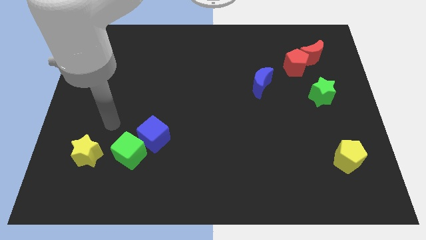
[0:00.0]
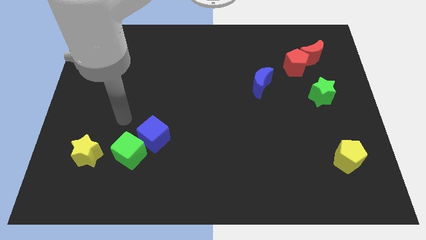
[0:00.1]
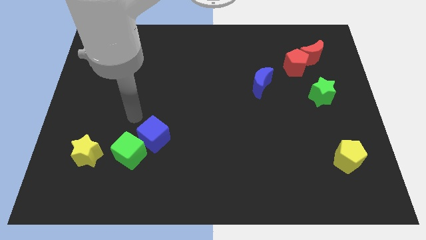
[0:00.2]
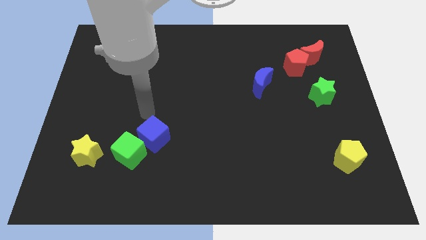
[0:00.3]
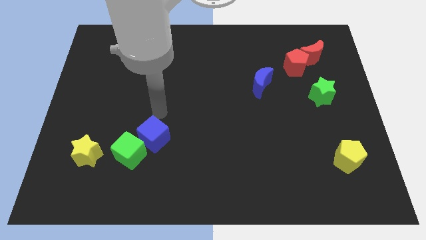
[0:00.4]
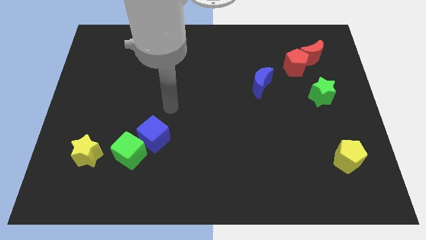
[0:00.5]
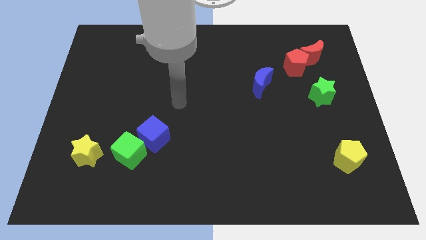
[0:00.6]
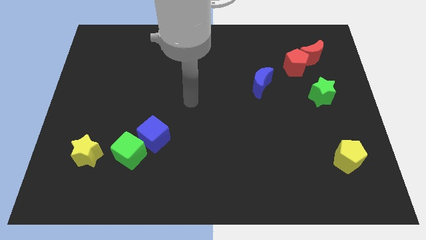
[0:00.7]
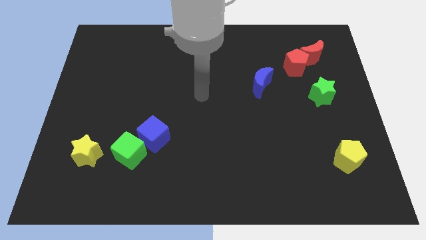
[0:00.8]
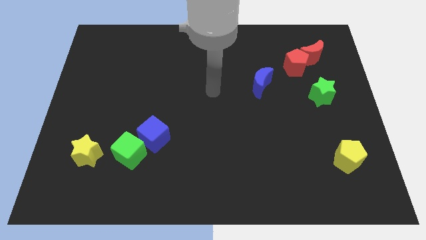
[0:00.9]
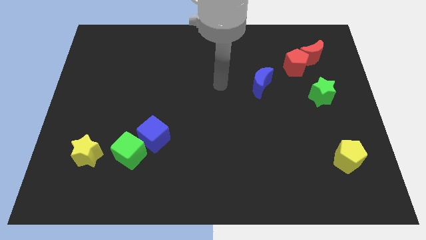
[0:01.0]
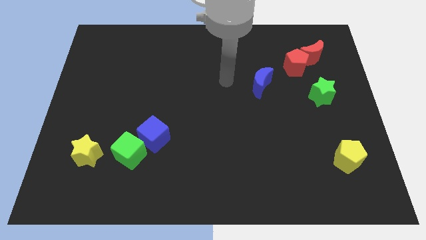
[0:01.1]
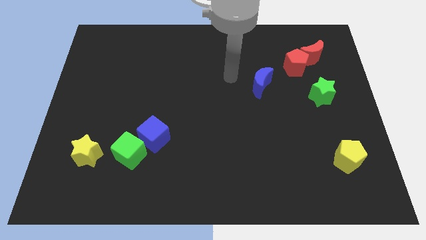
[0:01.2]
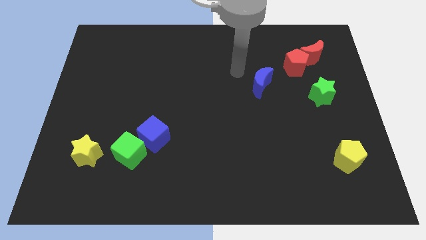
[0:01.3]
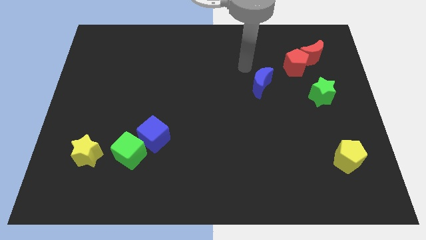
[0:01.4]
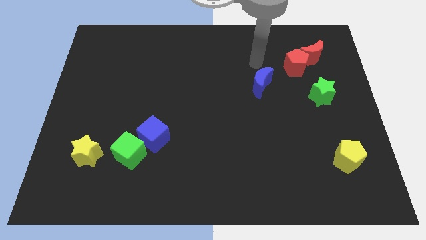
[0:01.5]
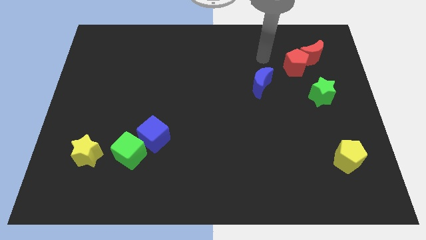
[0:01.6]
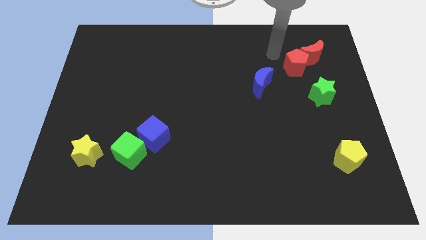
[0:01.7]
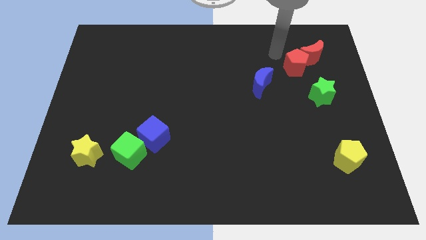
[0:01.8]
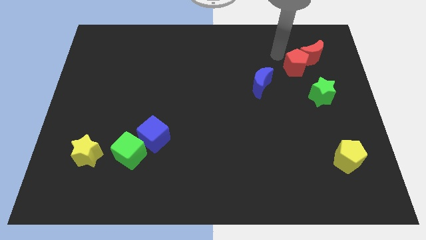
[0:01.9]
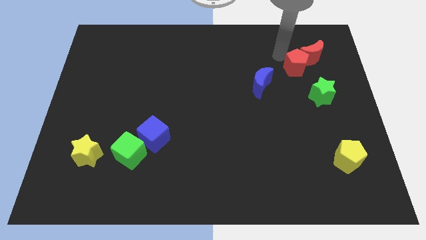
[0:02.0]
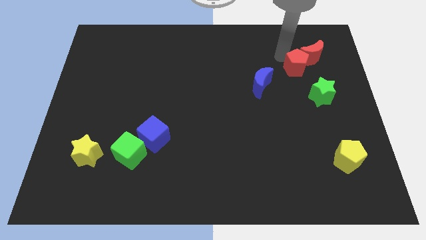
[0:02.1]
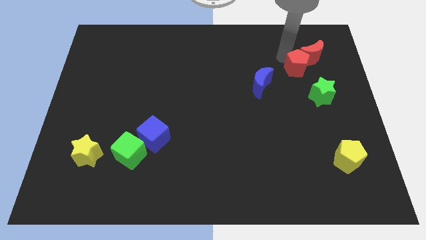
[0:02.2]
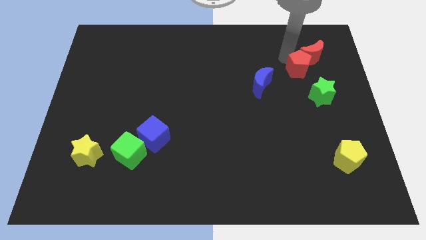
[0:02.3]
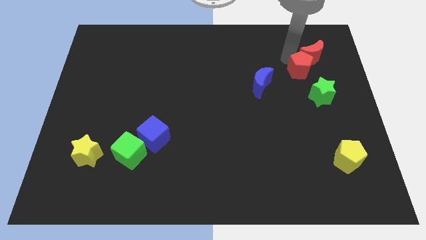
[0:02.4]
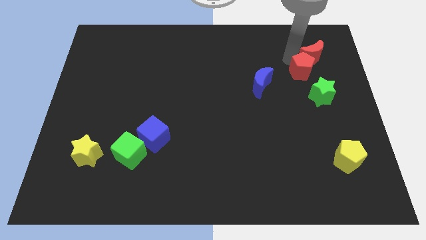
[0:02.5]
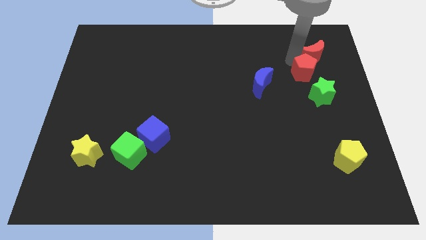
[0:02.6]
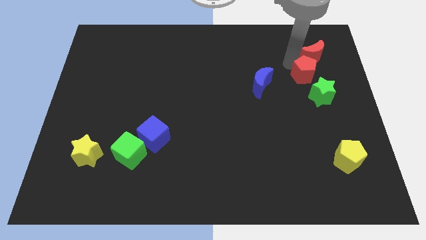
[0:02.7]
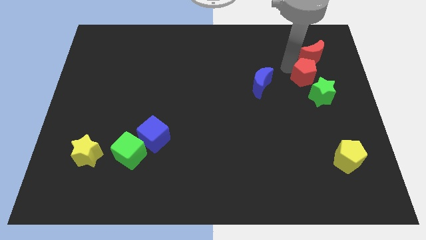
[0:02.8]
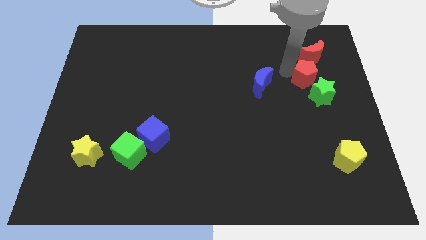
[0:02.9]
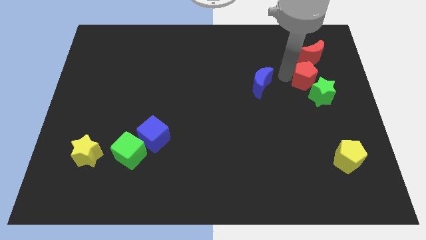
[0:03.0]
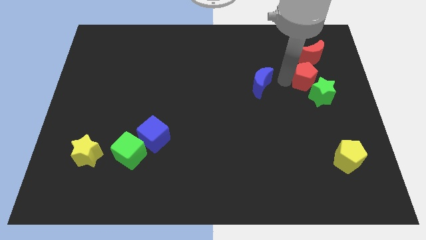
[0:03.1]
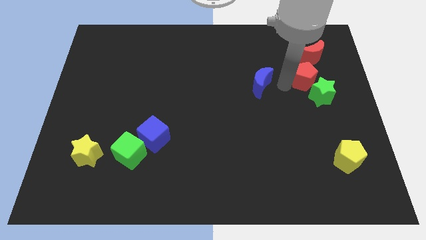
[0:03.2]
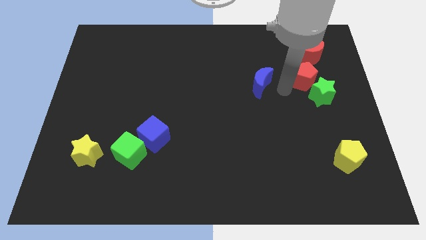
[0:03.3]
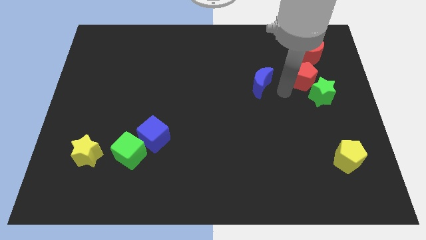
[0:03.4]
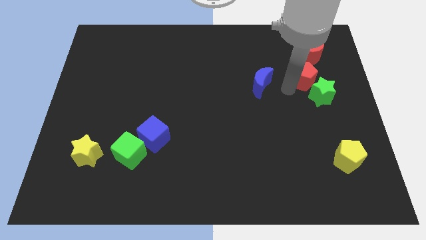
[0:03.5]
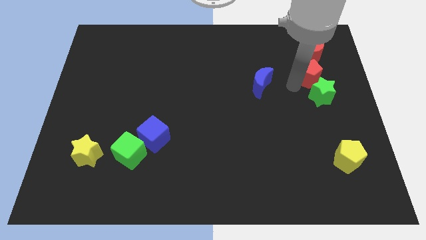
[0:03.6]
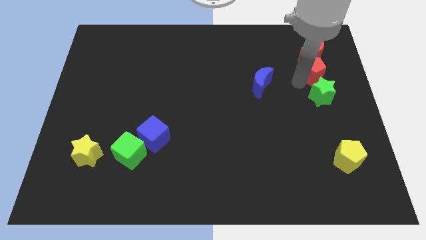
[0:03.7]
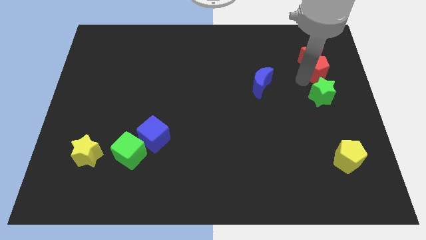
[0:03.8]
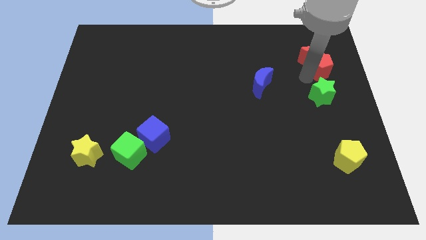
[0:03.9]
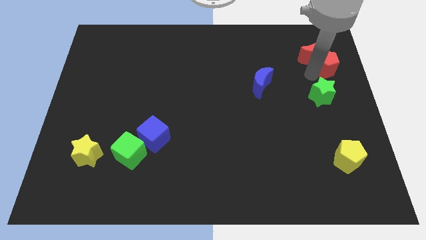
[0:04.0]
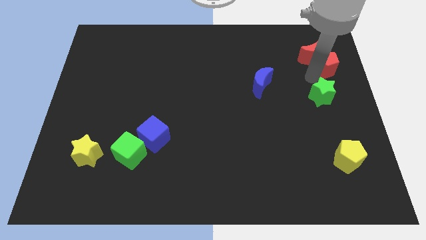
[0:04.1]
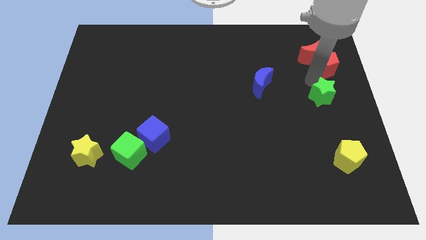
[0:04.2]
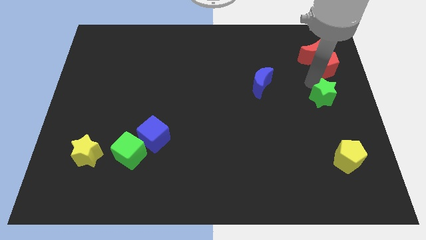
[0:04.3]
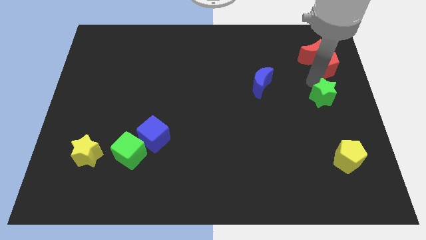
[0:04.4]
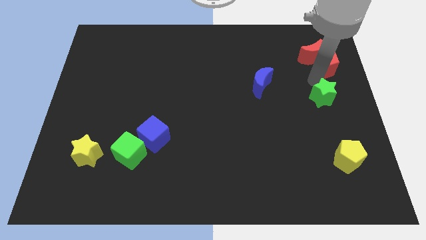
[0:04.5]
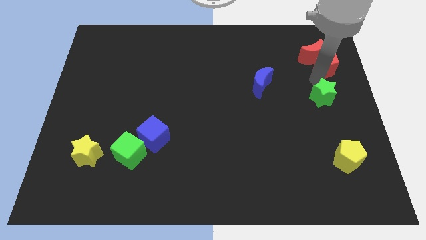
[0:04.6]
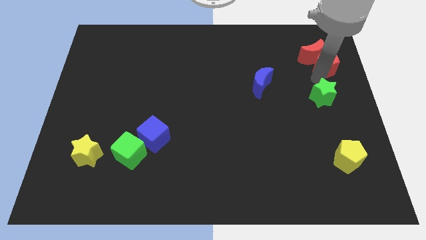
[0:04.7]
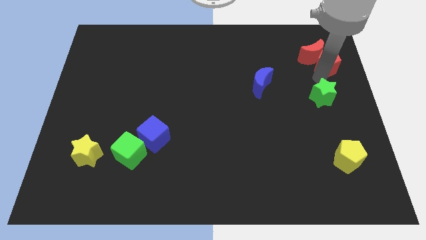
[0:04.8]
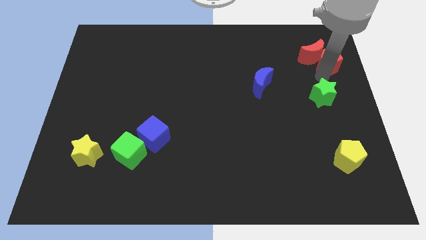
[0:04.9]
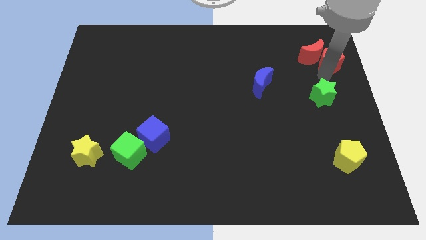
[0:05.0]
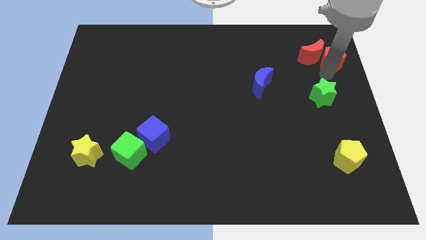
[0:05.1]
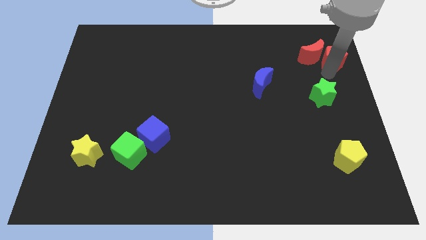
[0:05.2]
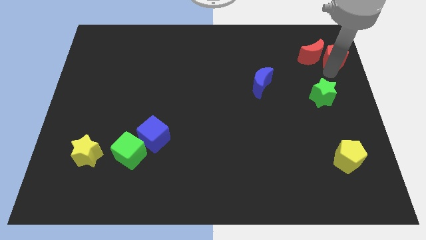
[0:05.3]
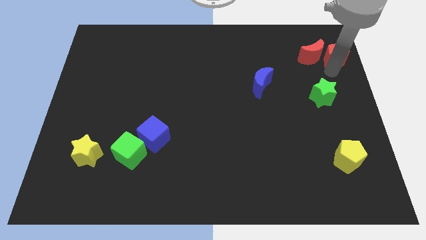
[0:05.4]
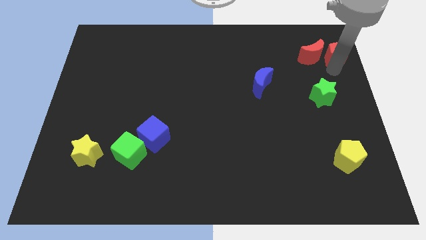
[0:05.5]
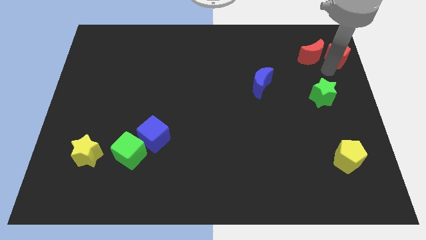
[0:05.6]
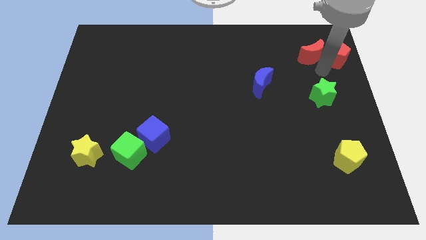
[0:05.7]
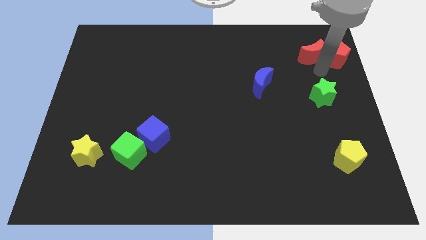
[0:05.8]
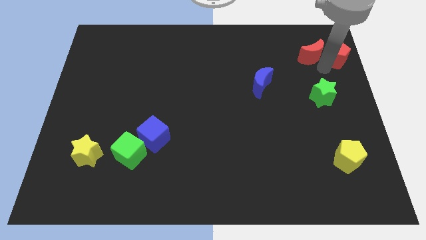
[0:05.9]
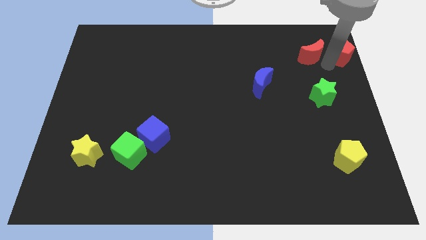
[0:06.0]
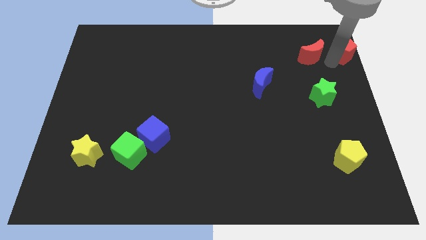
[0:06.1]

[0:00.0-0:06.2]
push the red pentagon to the upper right corner

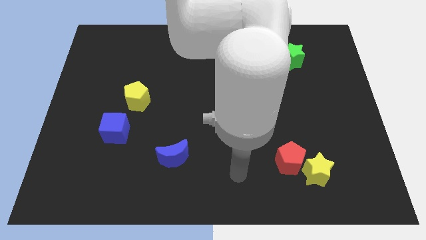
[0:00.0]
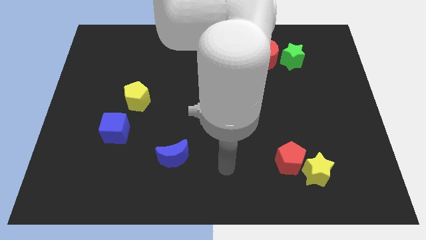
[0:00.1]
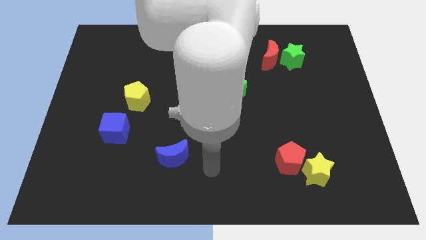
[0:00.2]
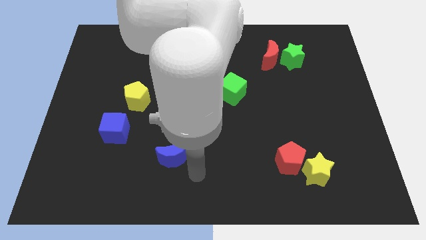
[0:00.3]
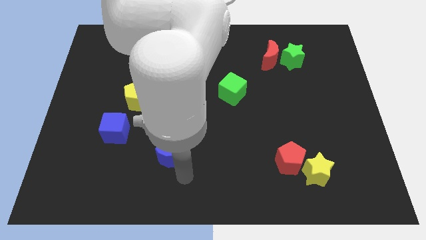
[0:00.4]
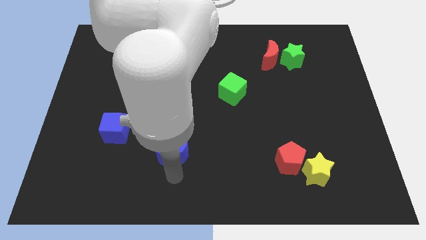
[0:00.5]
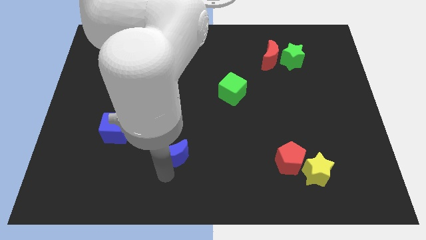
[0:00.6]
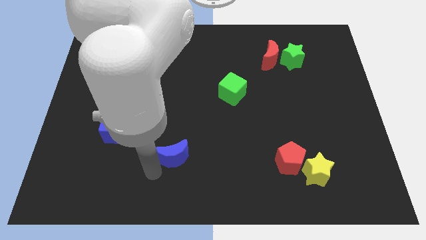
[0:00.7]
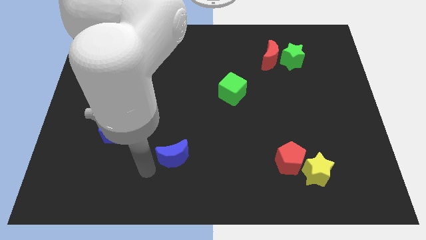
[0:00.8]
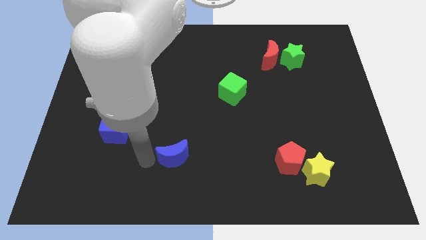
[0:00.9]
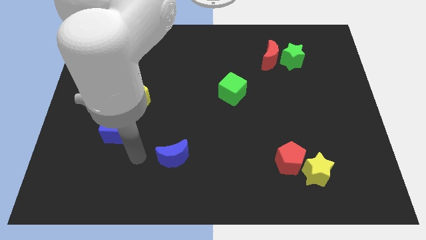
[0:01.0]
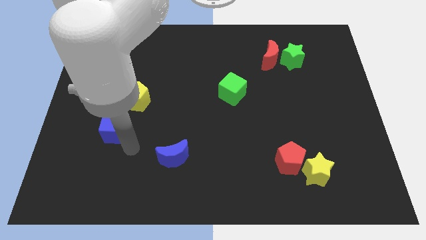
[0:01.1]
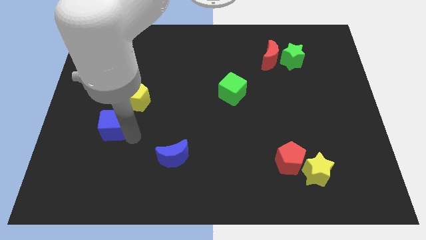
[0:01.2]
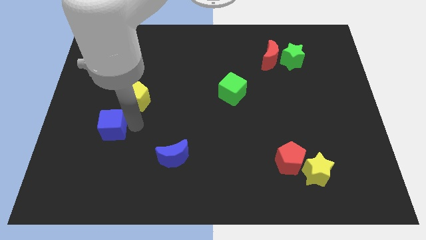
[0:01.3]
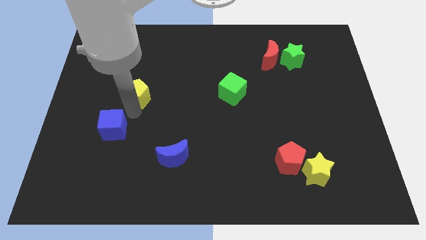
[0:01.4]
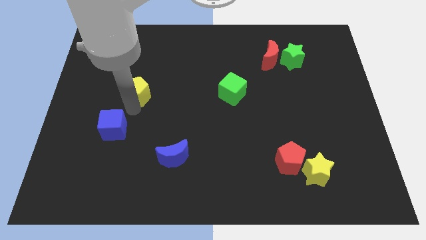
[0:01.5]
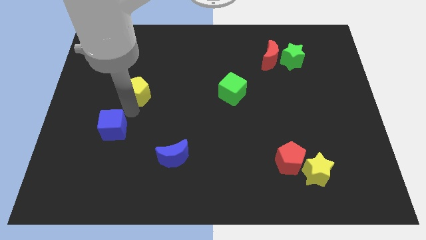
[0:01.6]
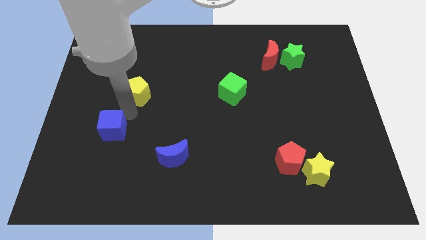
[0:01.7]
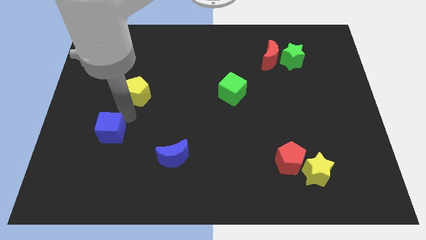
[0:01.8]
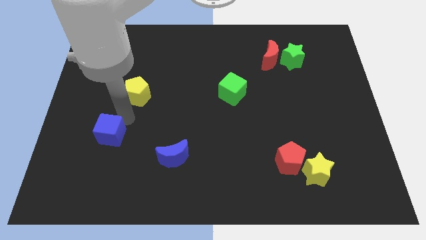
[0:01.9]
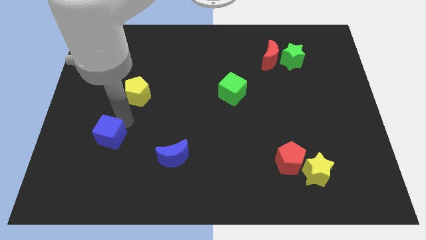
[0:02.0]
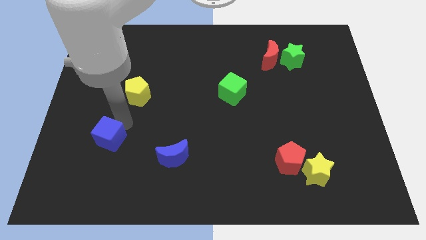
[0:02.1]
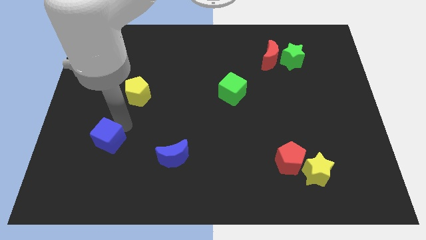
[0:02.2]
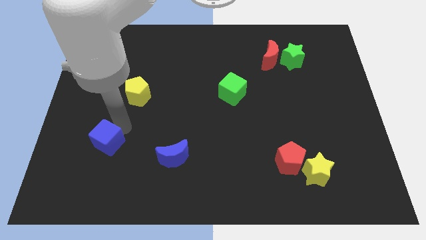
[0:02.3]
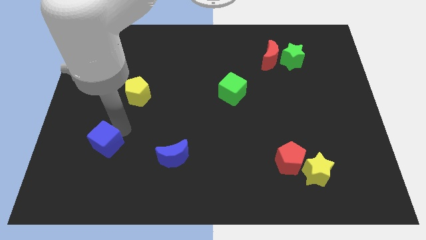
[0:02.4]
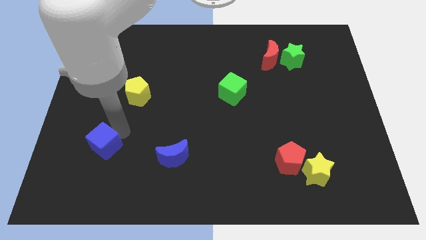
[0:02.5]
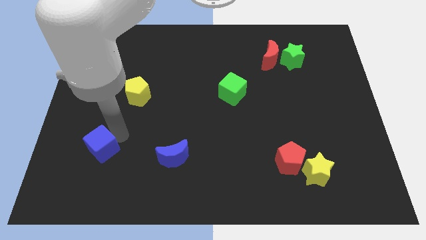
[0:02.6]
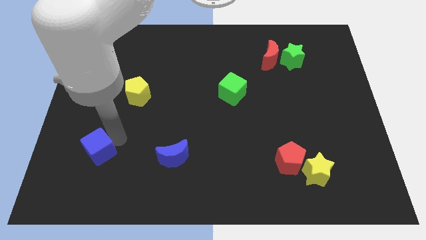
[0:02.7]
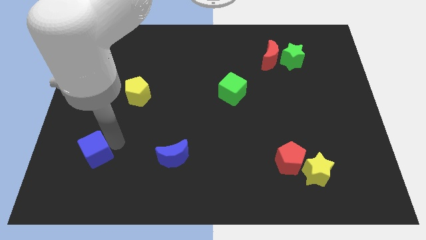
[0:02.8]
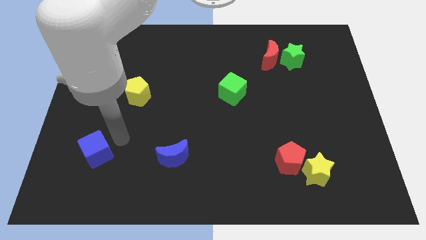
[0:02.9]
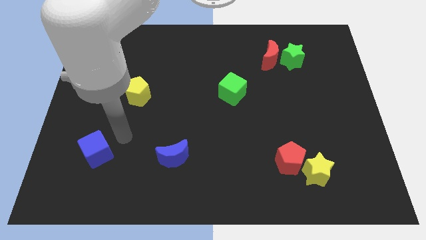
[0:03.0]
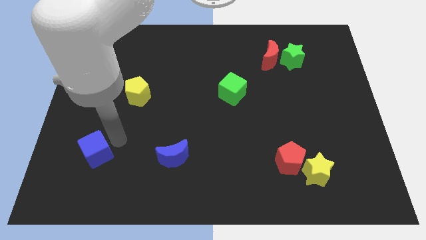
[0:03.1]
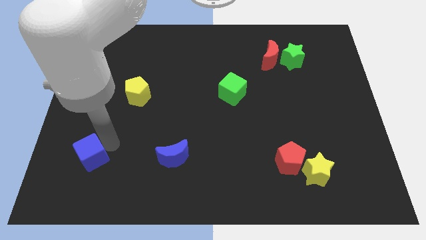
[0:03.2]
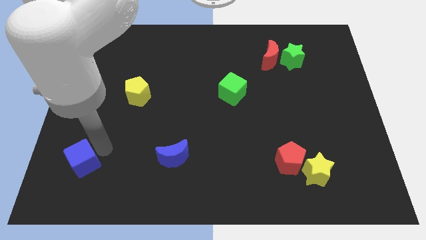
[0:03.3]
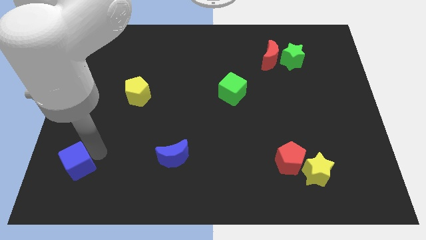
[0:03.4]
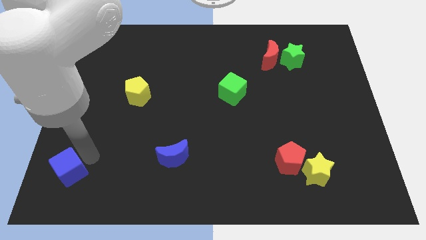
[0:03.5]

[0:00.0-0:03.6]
push the blue cube to the lower left corner
